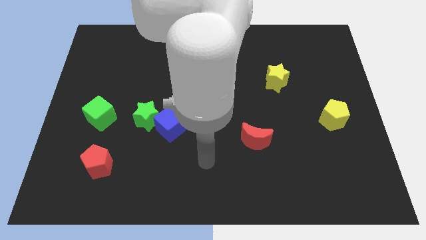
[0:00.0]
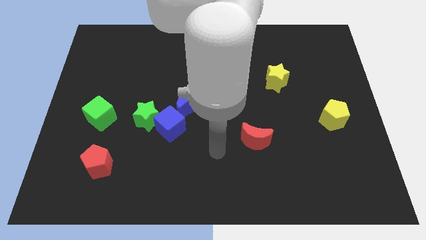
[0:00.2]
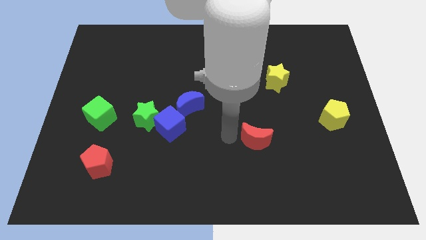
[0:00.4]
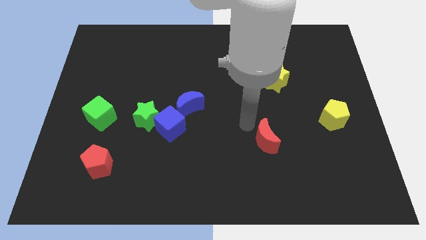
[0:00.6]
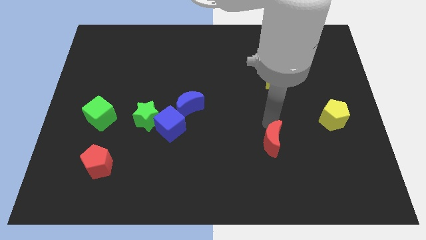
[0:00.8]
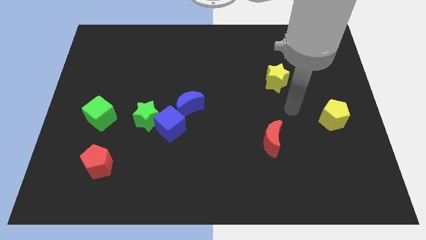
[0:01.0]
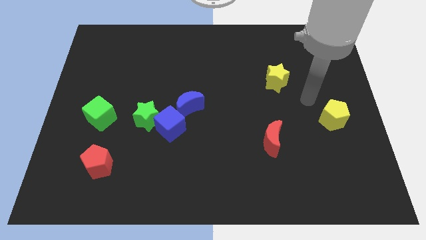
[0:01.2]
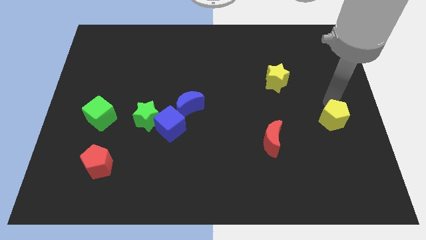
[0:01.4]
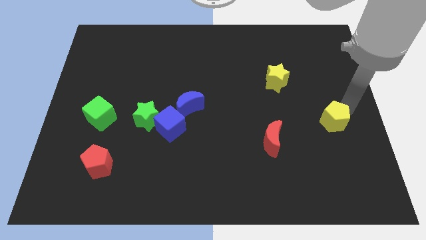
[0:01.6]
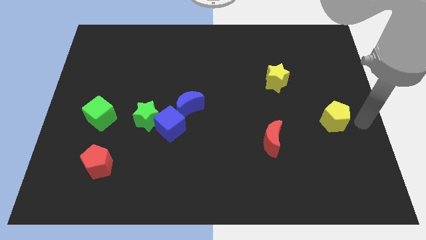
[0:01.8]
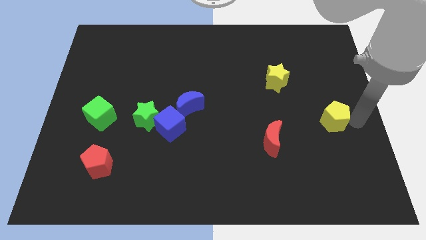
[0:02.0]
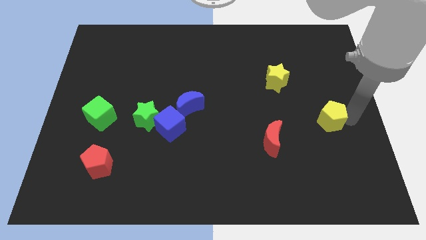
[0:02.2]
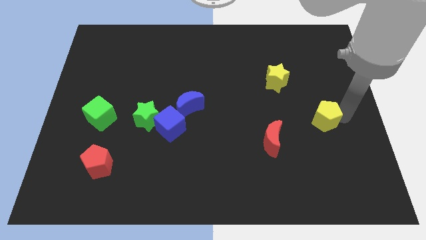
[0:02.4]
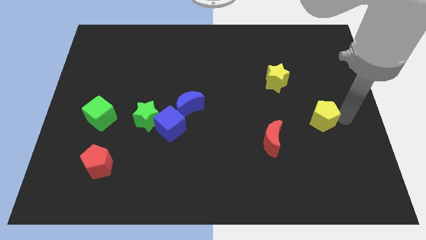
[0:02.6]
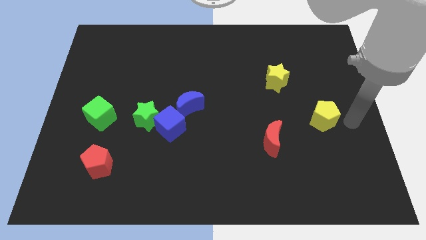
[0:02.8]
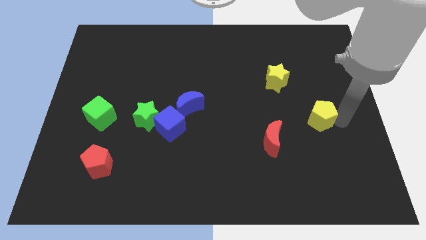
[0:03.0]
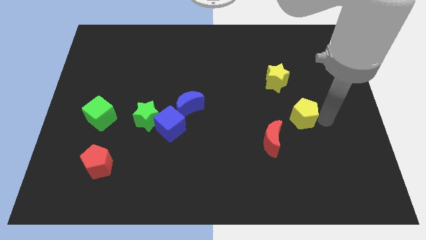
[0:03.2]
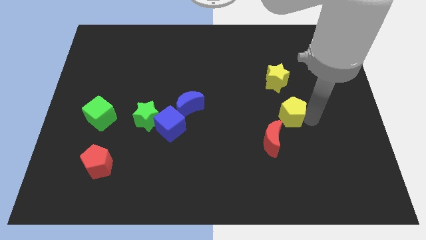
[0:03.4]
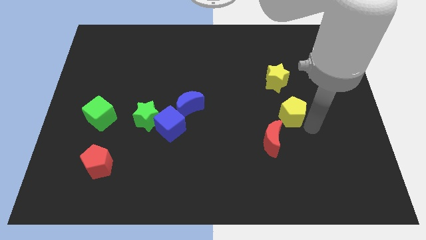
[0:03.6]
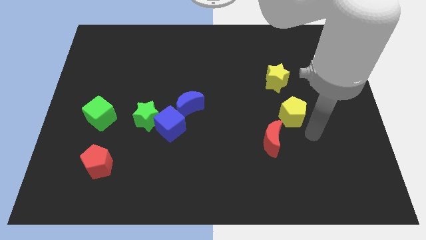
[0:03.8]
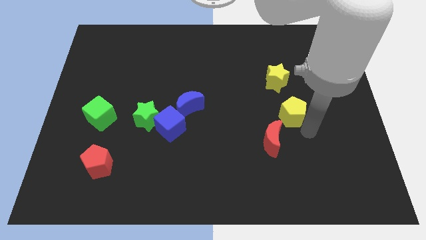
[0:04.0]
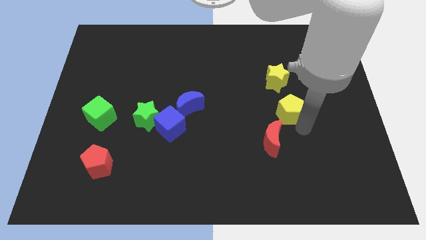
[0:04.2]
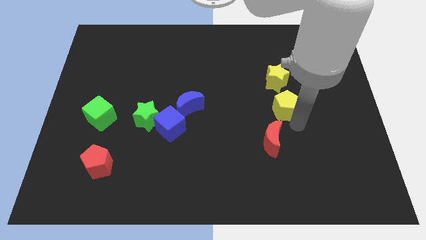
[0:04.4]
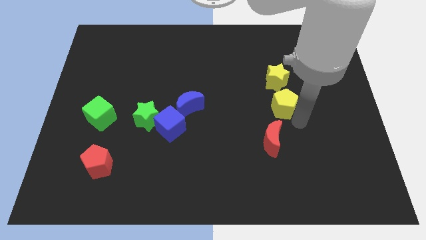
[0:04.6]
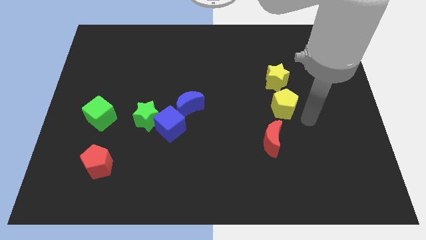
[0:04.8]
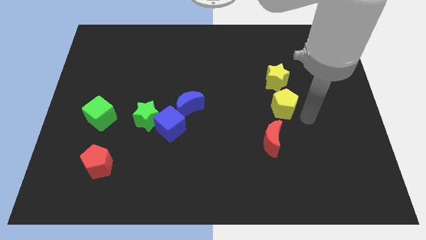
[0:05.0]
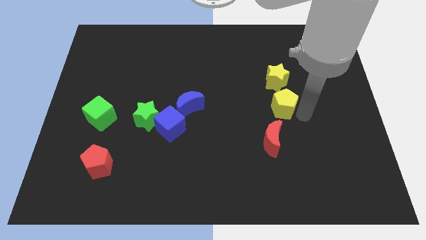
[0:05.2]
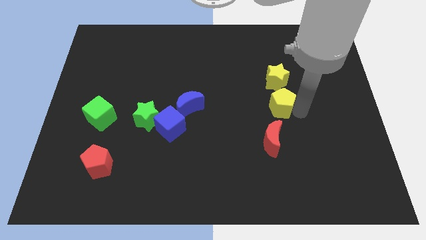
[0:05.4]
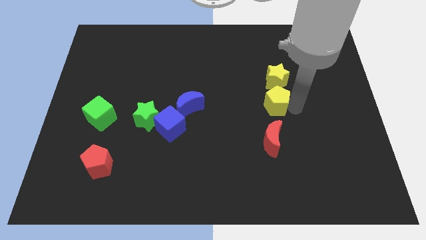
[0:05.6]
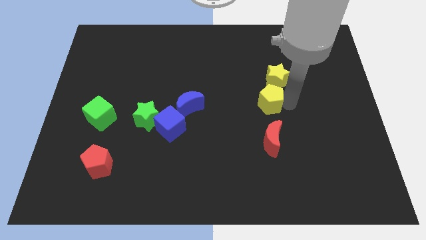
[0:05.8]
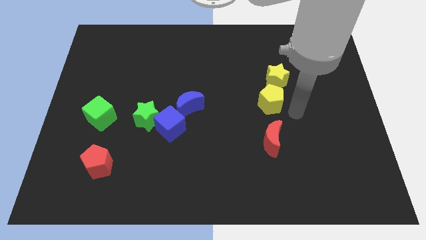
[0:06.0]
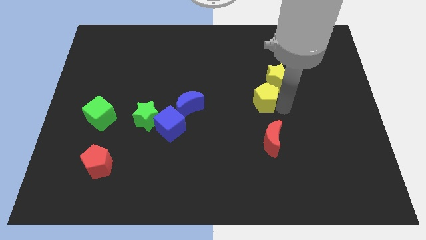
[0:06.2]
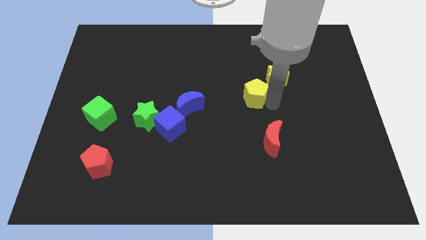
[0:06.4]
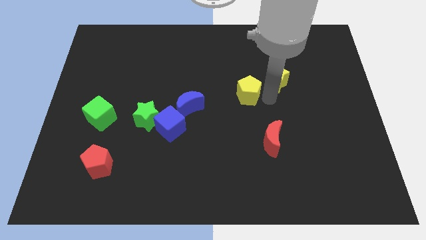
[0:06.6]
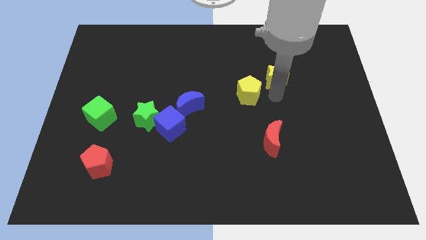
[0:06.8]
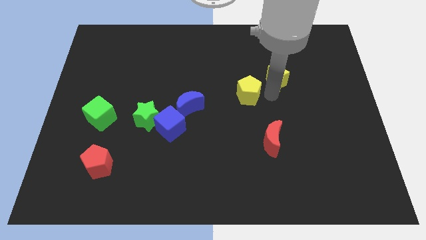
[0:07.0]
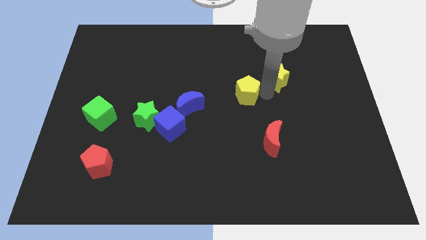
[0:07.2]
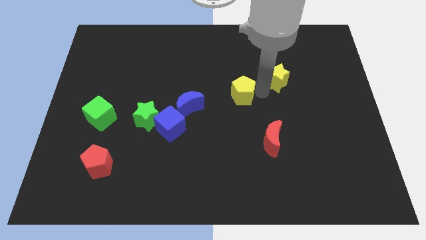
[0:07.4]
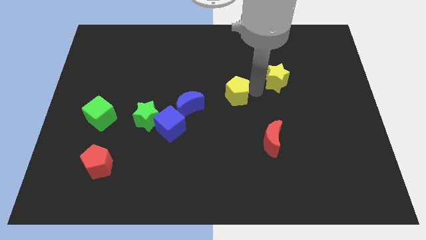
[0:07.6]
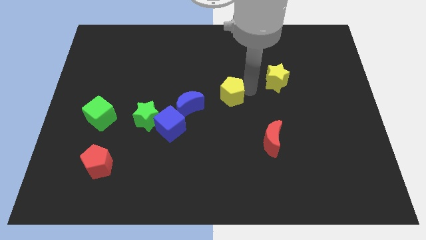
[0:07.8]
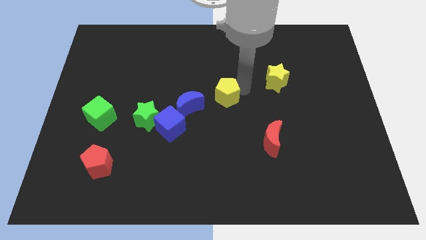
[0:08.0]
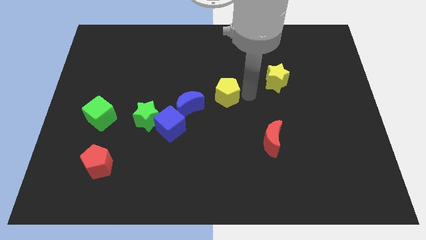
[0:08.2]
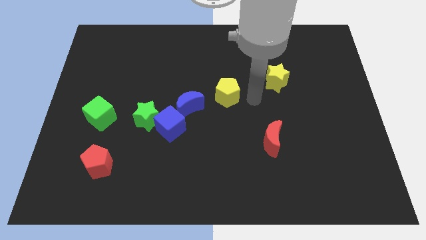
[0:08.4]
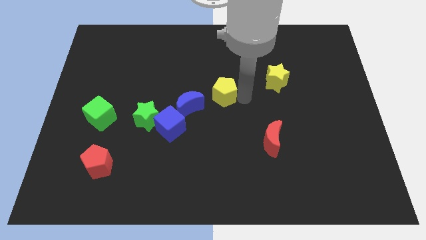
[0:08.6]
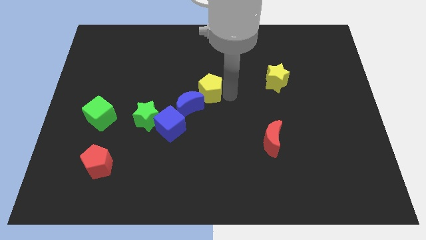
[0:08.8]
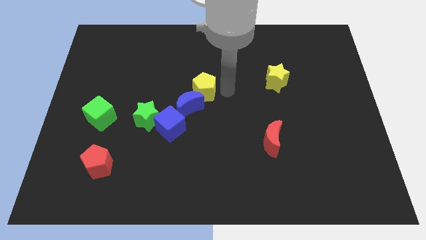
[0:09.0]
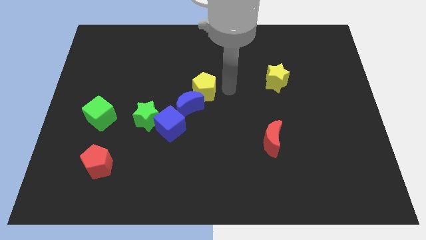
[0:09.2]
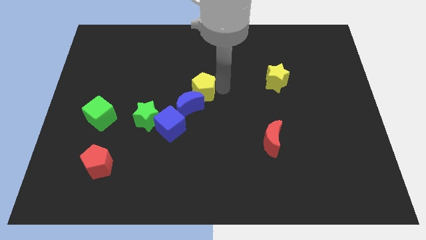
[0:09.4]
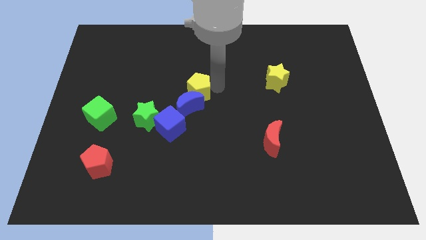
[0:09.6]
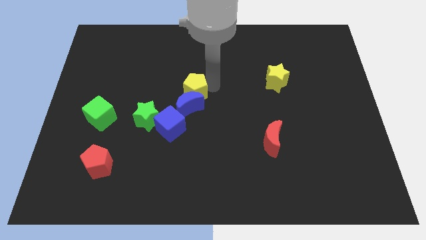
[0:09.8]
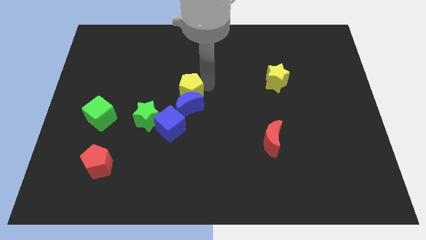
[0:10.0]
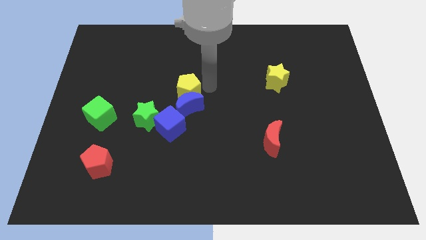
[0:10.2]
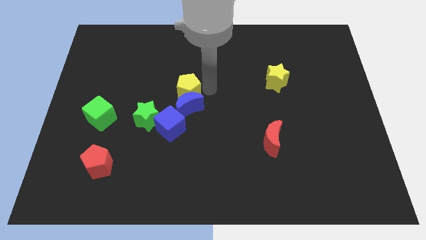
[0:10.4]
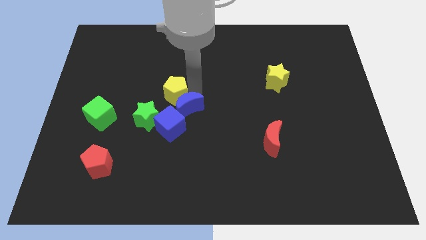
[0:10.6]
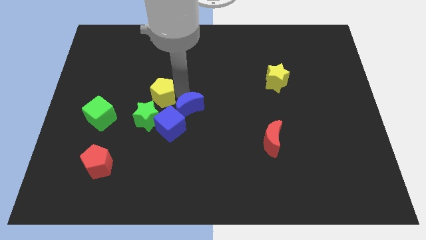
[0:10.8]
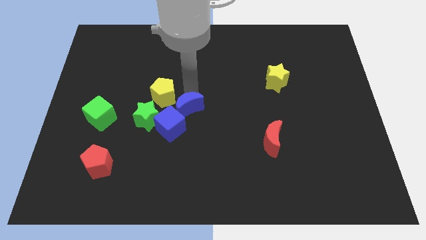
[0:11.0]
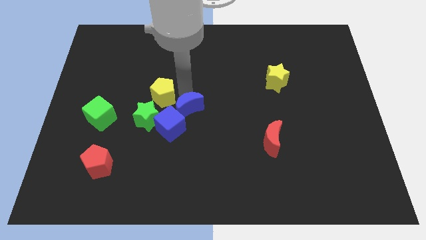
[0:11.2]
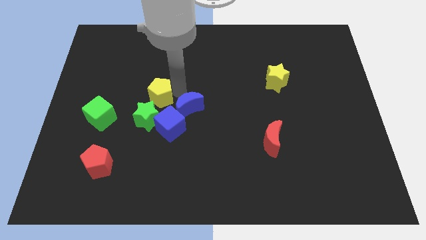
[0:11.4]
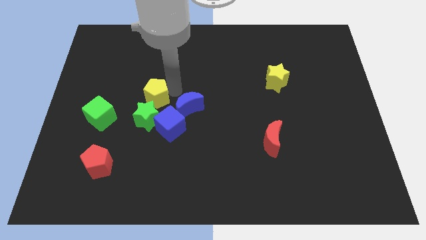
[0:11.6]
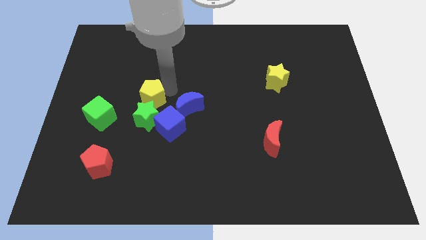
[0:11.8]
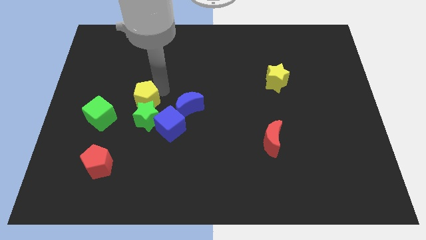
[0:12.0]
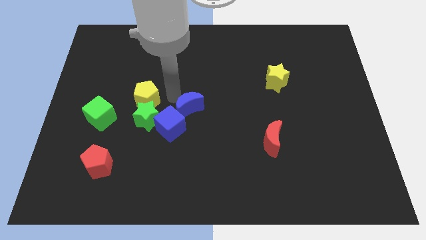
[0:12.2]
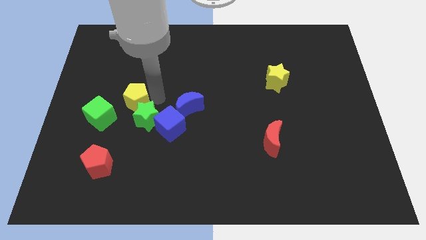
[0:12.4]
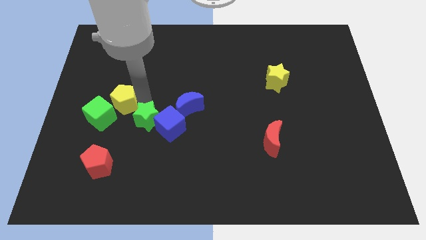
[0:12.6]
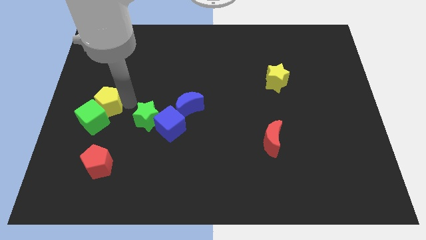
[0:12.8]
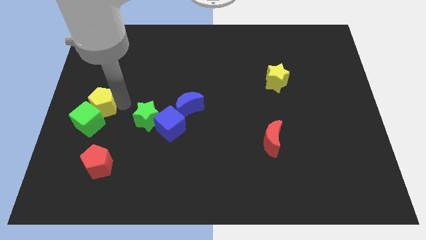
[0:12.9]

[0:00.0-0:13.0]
move the yellow pentagon to the left side
